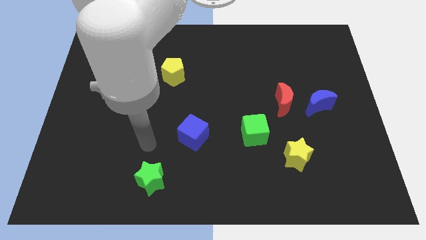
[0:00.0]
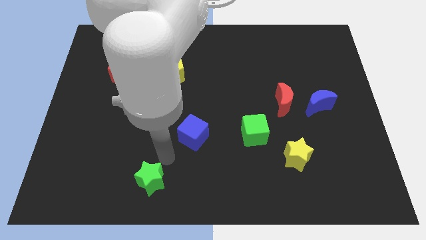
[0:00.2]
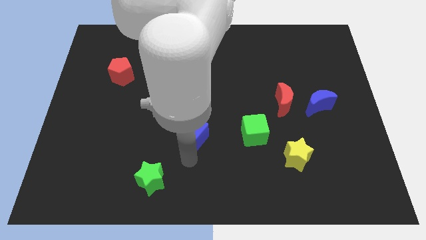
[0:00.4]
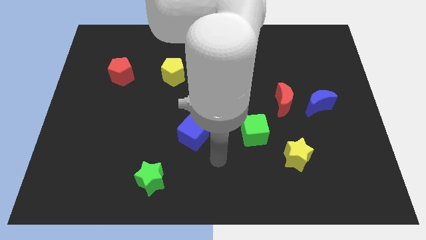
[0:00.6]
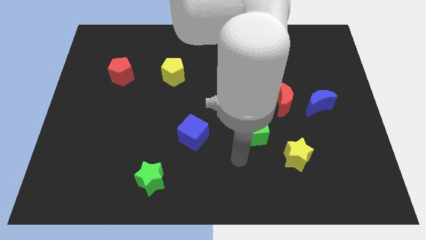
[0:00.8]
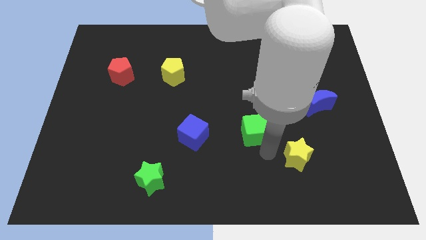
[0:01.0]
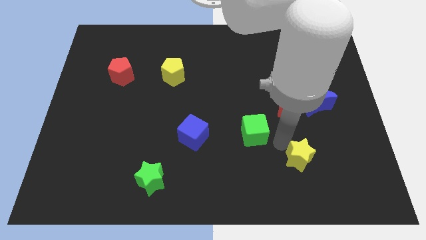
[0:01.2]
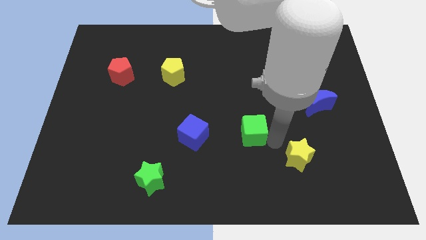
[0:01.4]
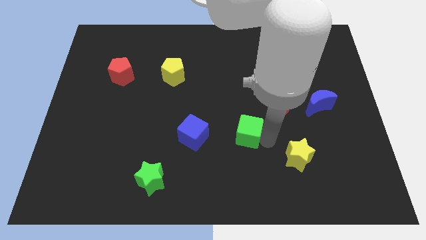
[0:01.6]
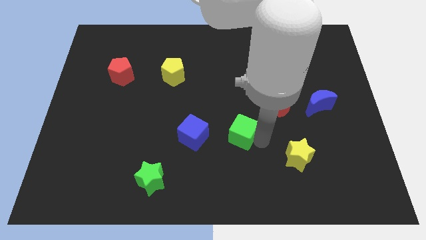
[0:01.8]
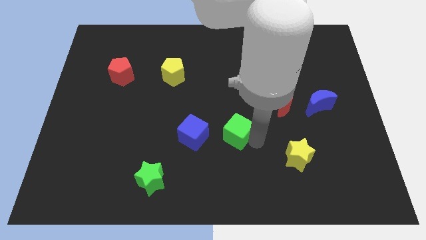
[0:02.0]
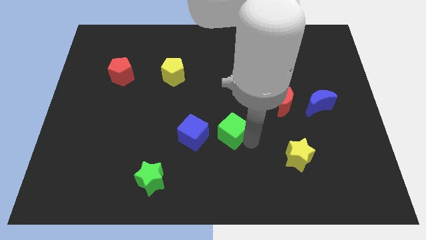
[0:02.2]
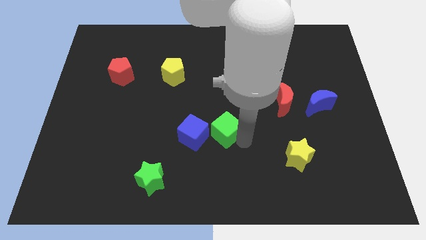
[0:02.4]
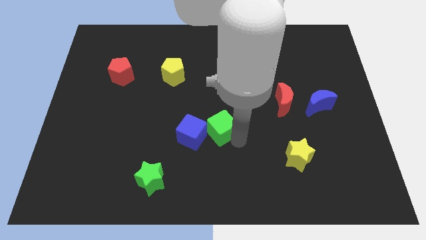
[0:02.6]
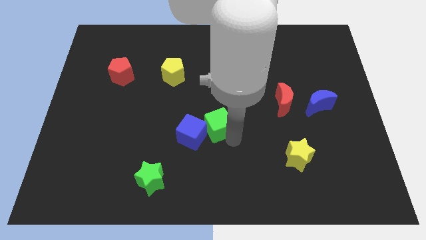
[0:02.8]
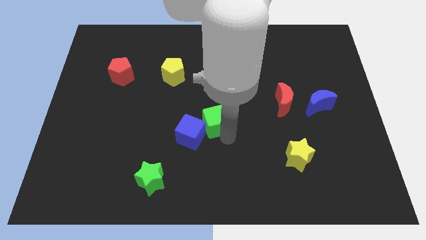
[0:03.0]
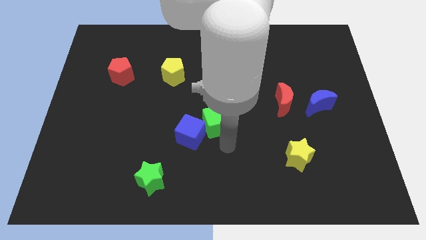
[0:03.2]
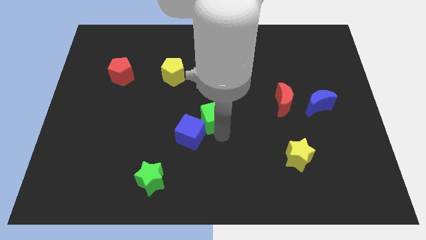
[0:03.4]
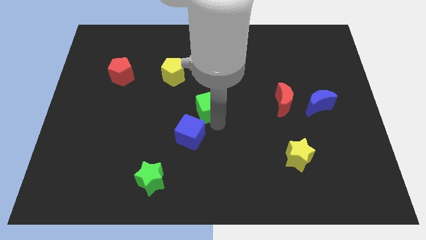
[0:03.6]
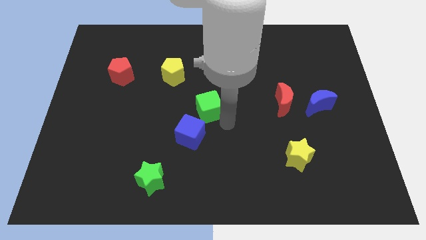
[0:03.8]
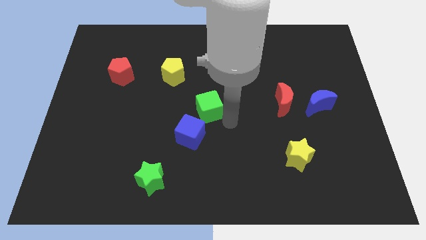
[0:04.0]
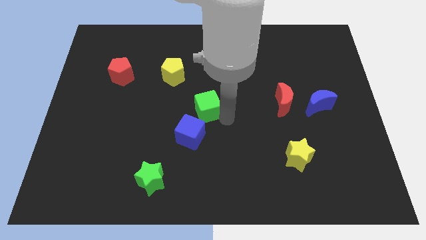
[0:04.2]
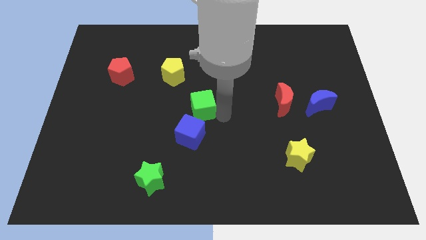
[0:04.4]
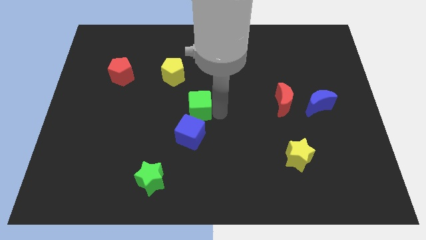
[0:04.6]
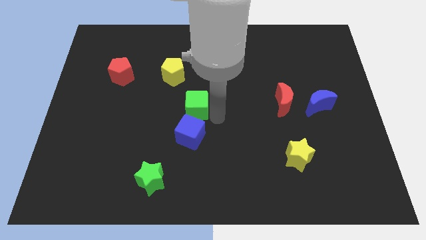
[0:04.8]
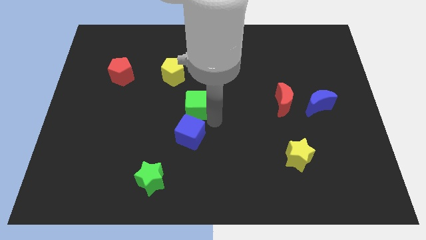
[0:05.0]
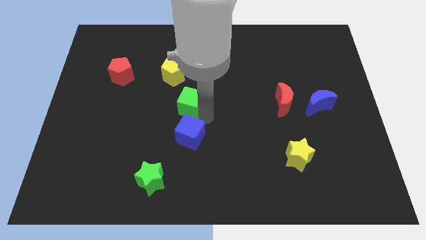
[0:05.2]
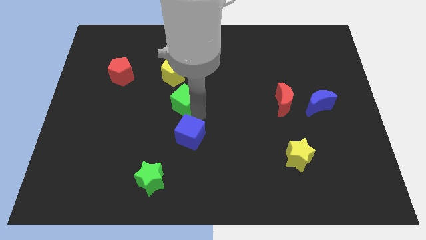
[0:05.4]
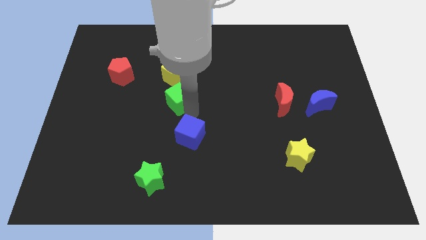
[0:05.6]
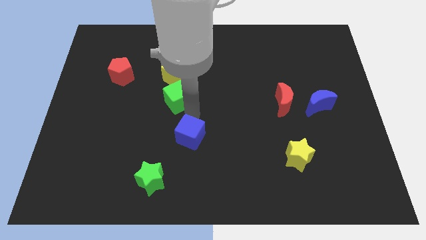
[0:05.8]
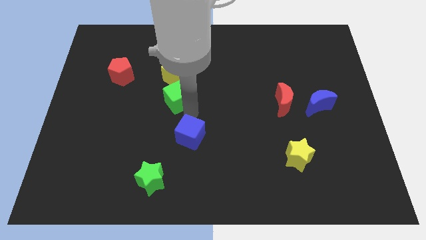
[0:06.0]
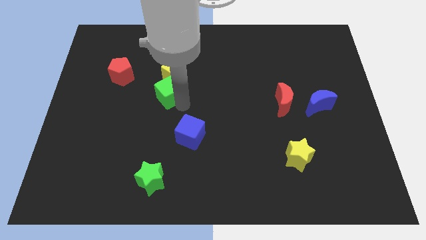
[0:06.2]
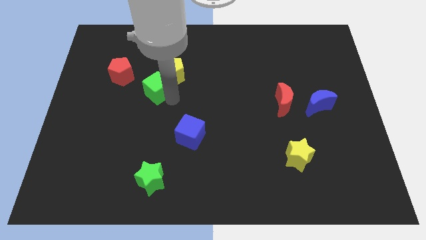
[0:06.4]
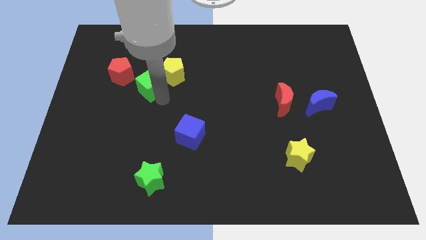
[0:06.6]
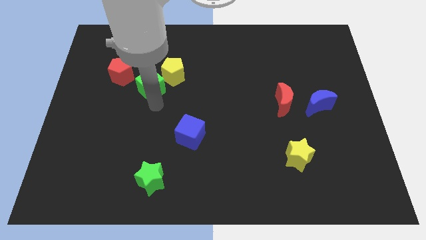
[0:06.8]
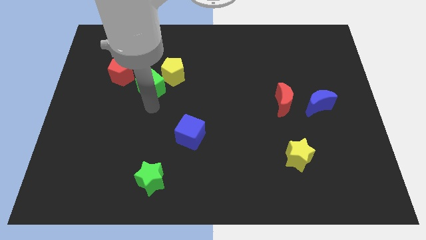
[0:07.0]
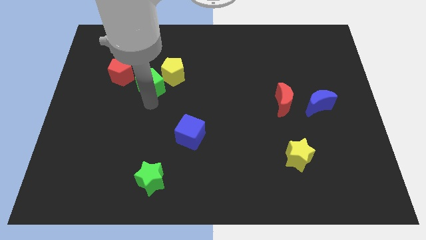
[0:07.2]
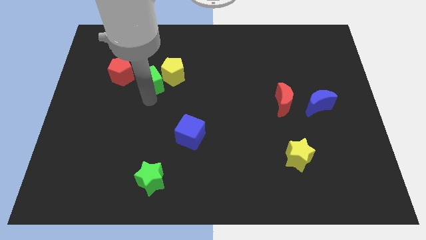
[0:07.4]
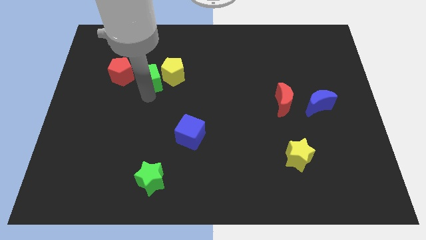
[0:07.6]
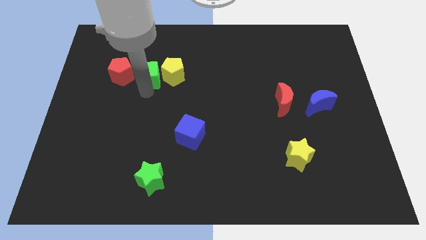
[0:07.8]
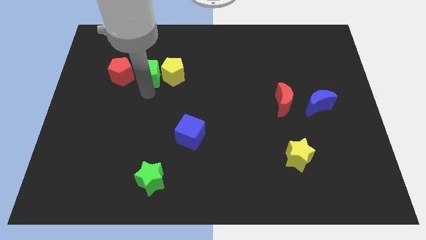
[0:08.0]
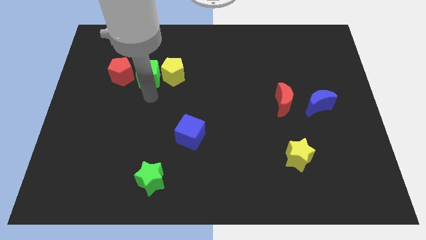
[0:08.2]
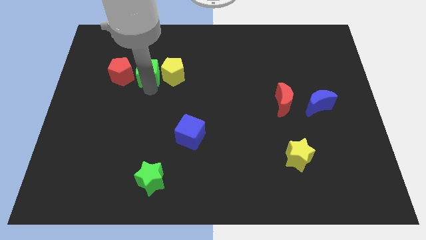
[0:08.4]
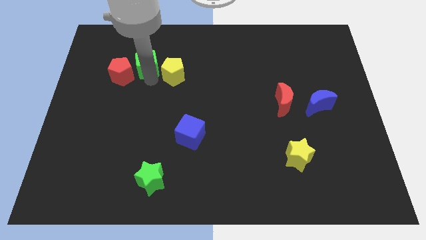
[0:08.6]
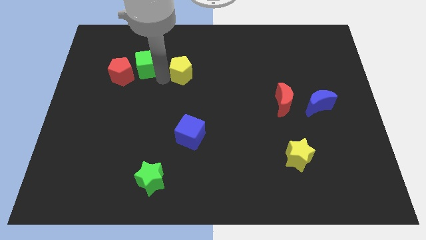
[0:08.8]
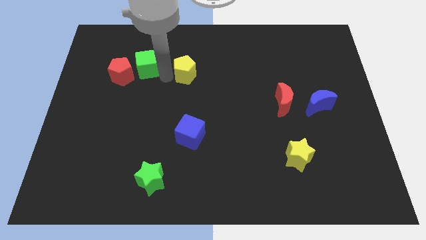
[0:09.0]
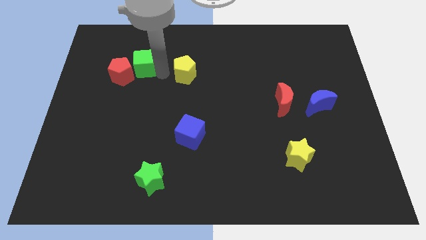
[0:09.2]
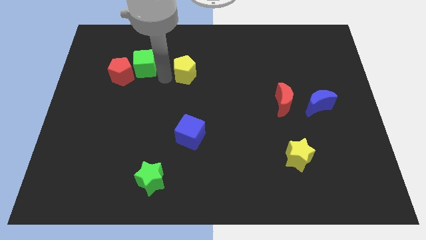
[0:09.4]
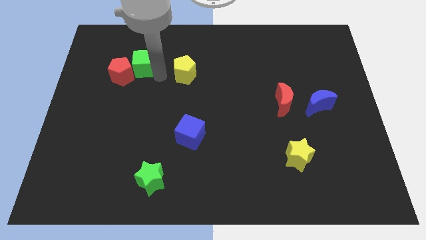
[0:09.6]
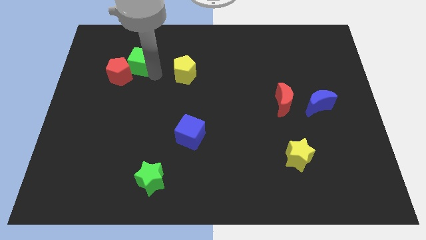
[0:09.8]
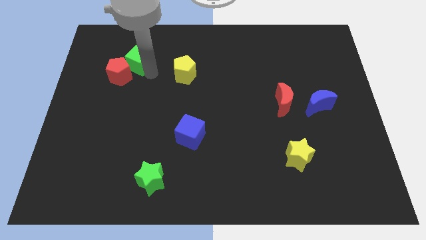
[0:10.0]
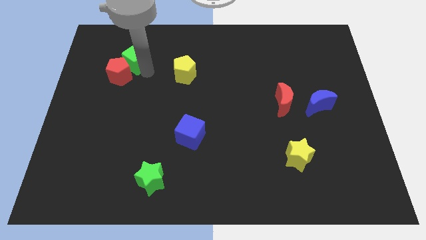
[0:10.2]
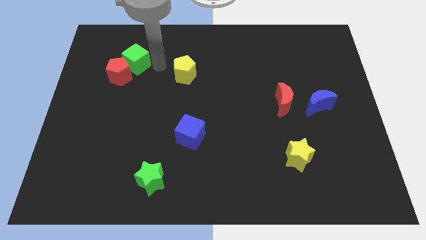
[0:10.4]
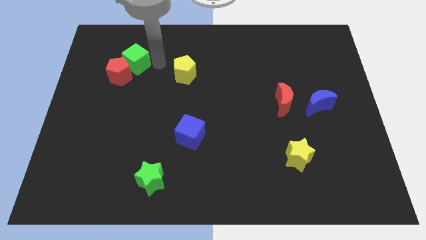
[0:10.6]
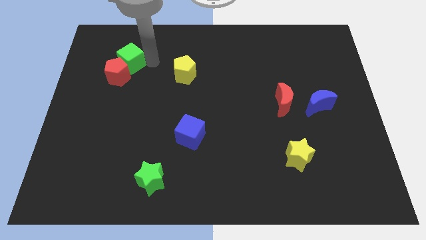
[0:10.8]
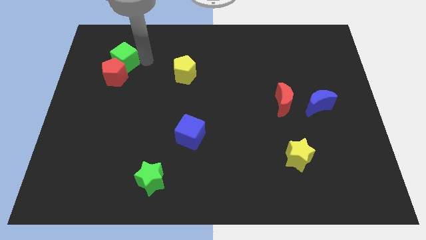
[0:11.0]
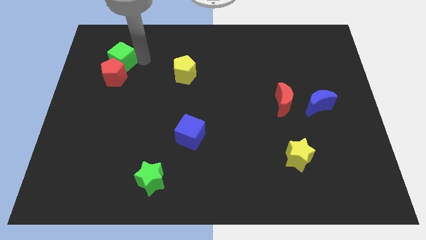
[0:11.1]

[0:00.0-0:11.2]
put the green cube diagonally up and to the left of the red pentagon
